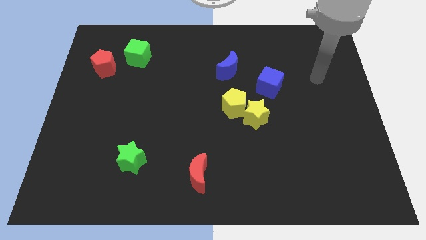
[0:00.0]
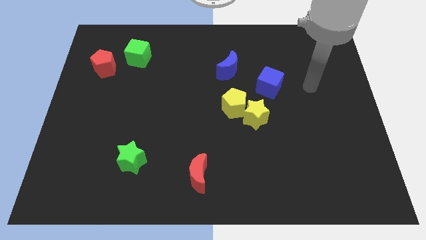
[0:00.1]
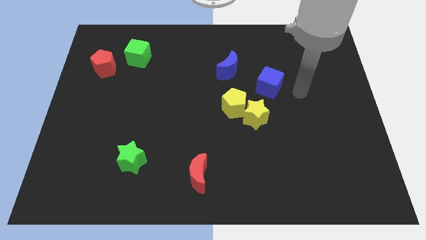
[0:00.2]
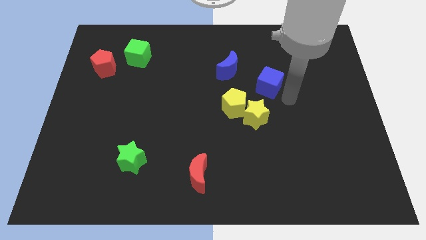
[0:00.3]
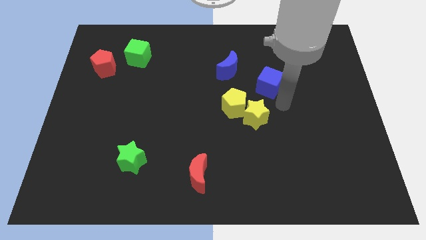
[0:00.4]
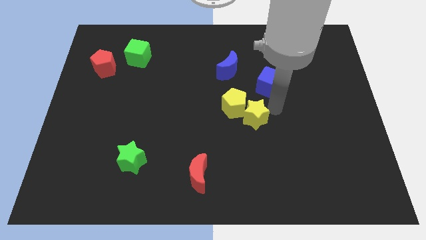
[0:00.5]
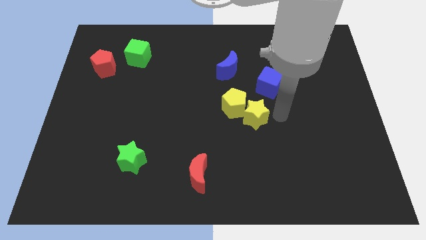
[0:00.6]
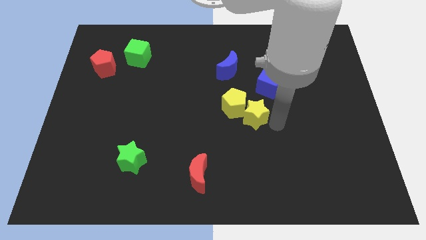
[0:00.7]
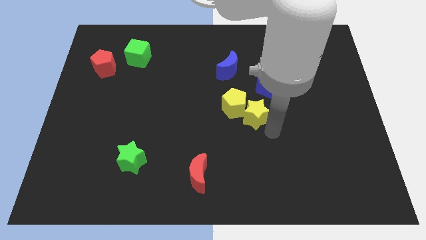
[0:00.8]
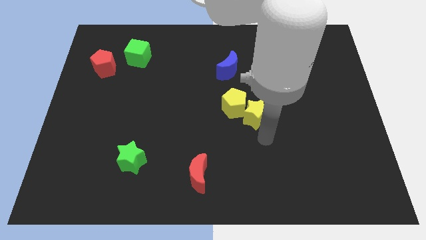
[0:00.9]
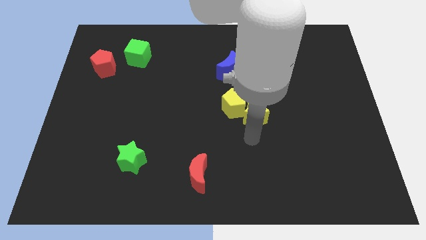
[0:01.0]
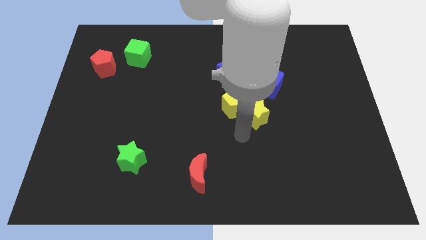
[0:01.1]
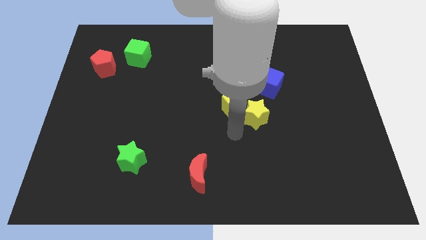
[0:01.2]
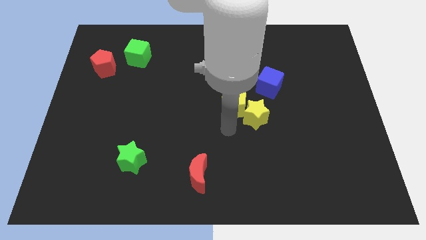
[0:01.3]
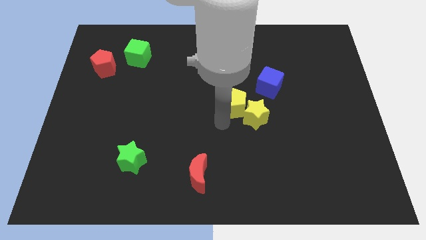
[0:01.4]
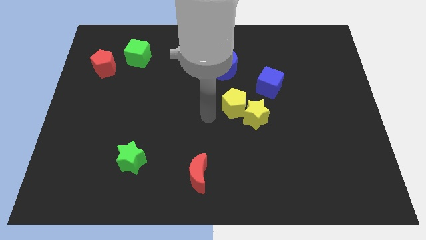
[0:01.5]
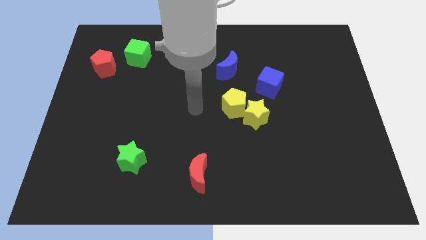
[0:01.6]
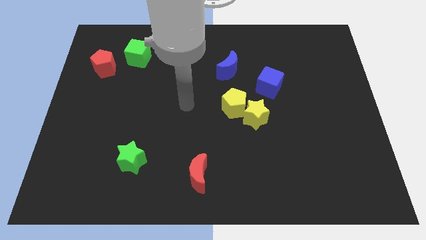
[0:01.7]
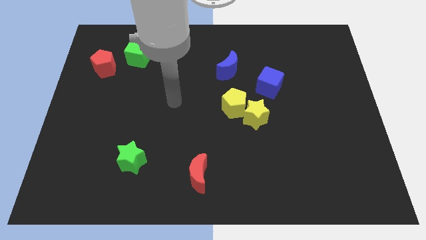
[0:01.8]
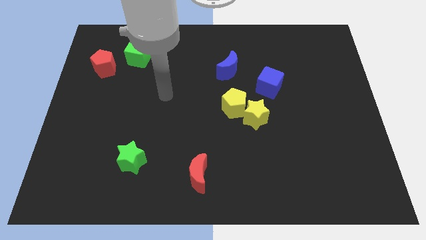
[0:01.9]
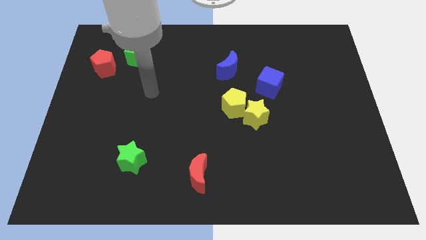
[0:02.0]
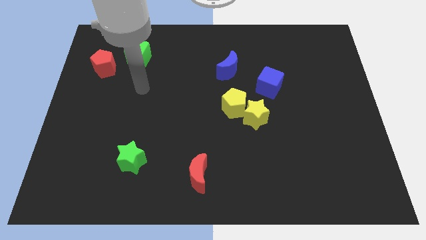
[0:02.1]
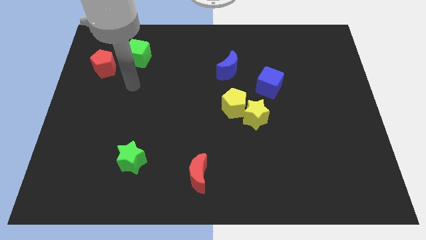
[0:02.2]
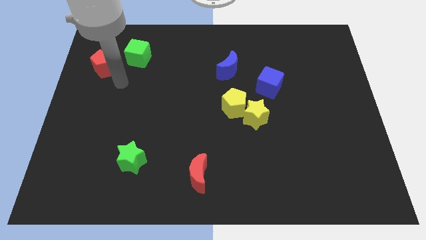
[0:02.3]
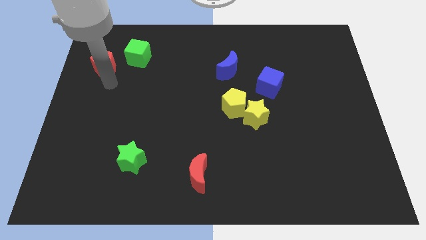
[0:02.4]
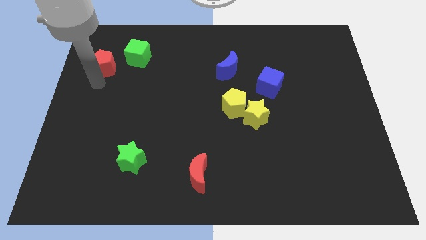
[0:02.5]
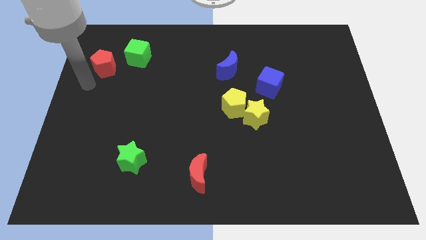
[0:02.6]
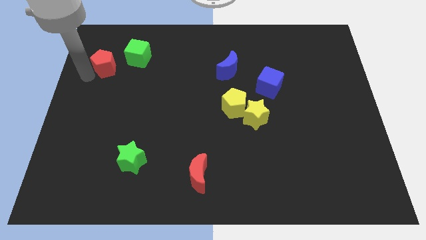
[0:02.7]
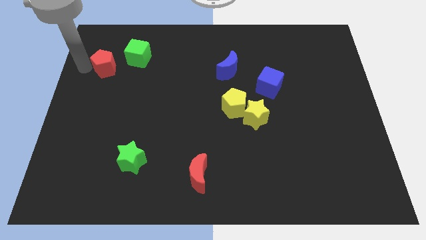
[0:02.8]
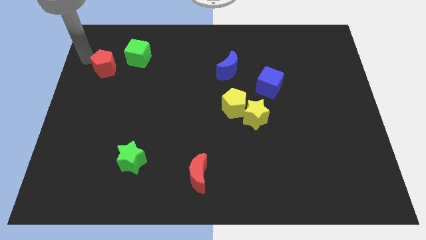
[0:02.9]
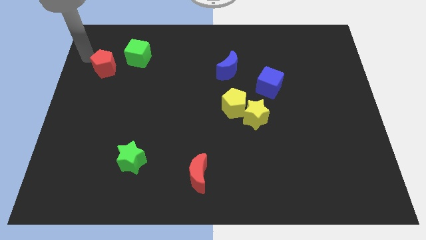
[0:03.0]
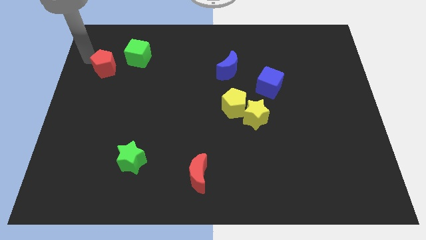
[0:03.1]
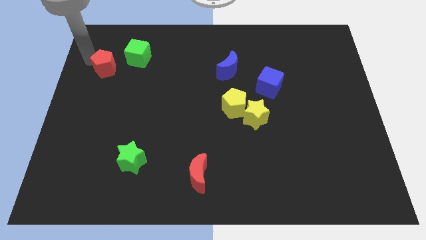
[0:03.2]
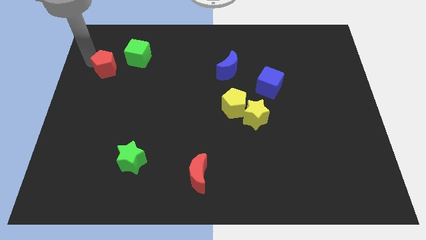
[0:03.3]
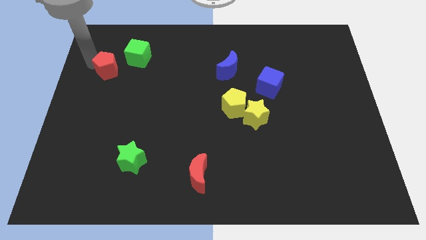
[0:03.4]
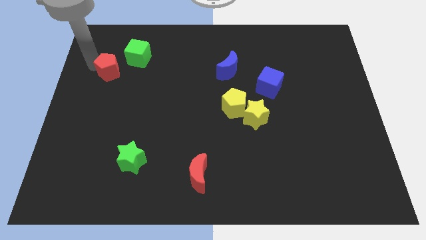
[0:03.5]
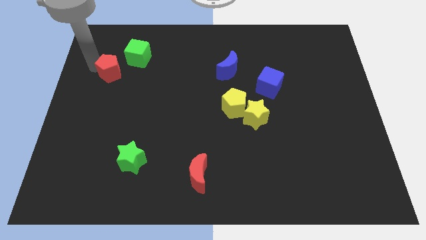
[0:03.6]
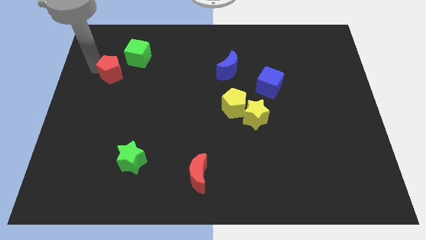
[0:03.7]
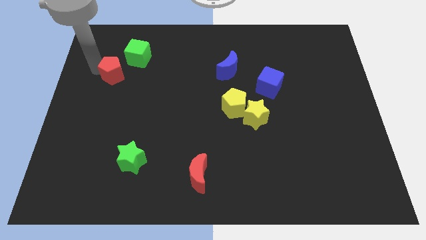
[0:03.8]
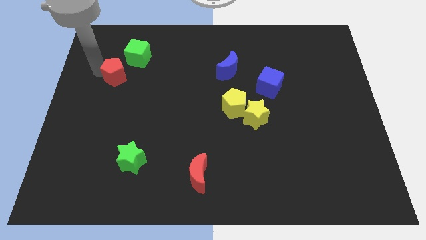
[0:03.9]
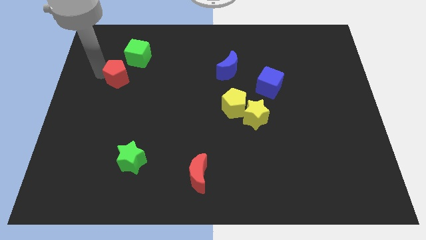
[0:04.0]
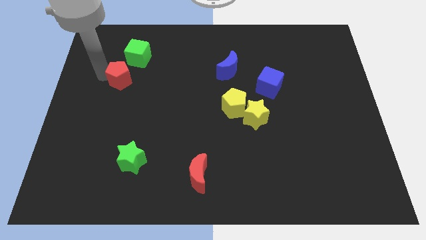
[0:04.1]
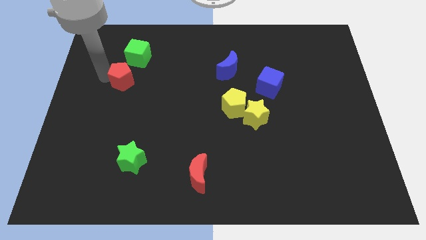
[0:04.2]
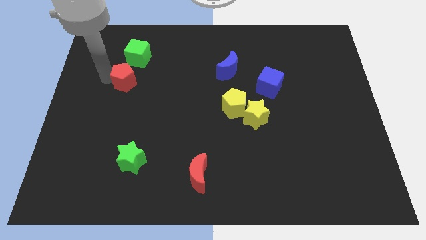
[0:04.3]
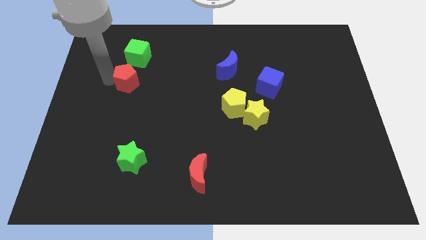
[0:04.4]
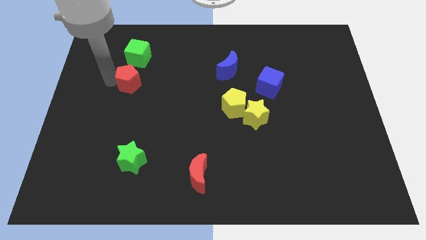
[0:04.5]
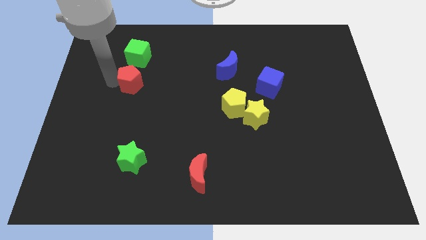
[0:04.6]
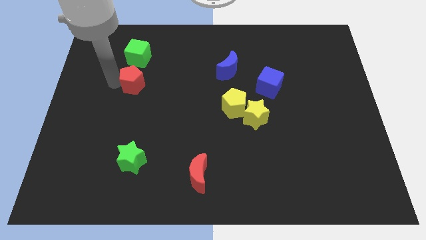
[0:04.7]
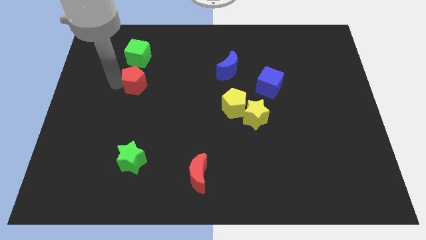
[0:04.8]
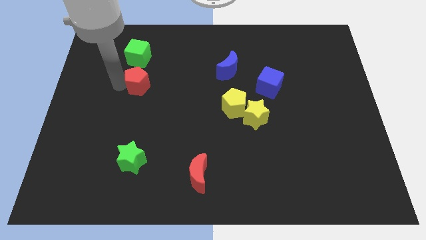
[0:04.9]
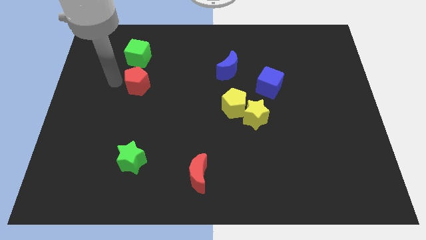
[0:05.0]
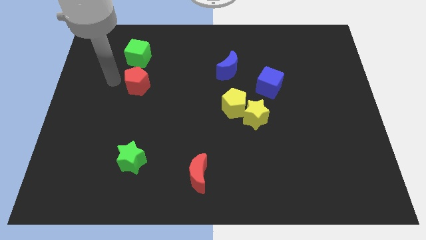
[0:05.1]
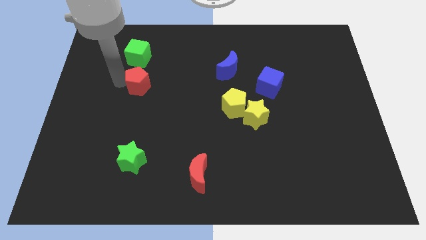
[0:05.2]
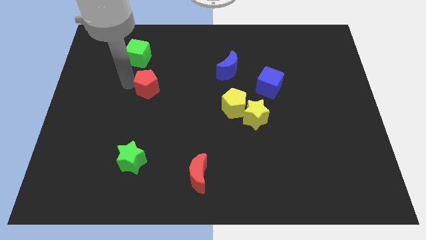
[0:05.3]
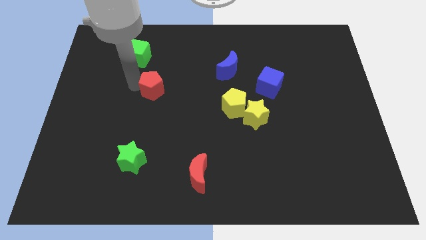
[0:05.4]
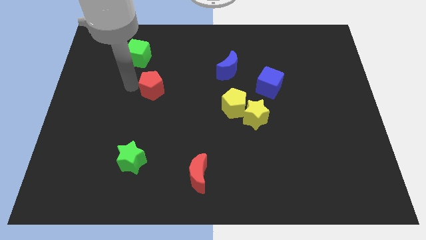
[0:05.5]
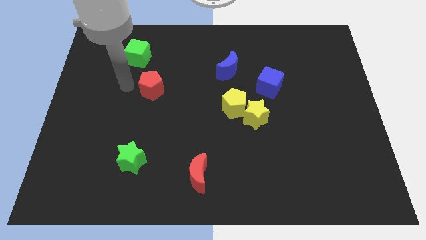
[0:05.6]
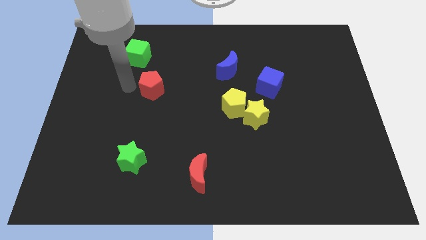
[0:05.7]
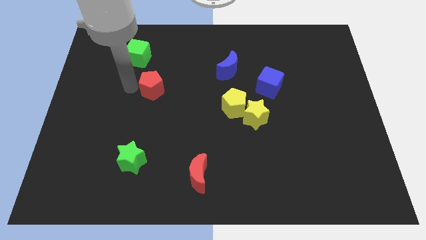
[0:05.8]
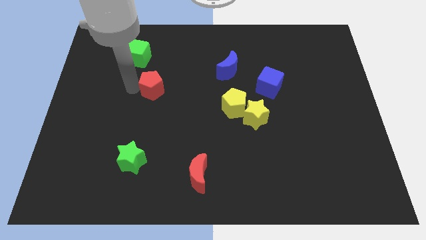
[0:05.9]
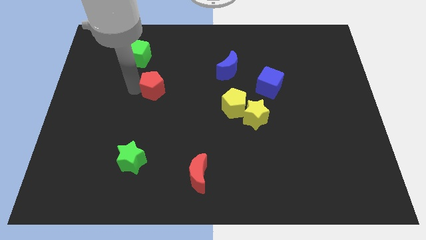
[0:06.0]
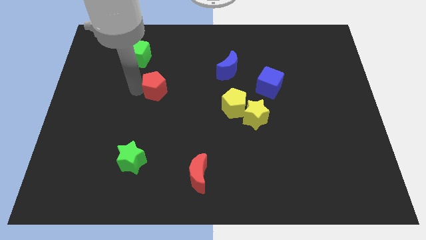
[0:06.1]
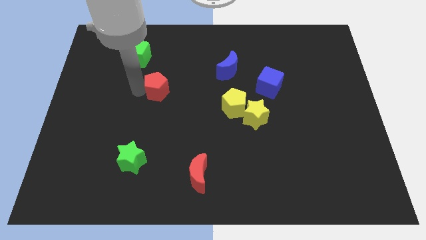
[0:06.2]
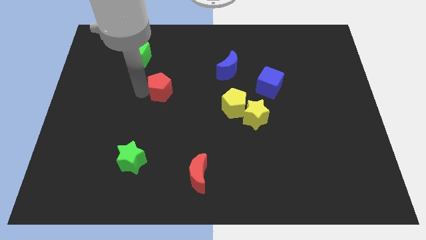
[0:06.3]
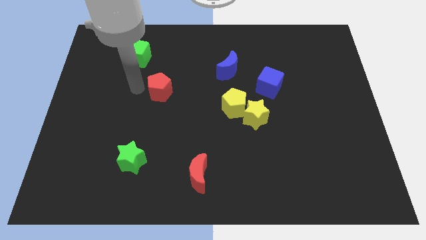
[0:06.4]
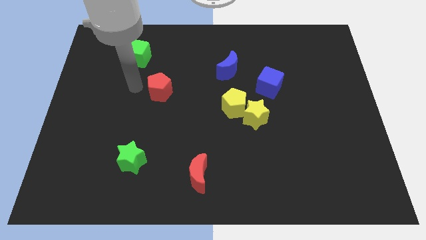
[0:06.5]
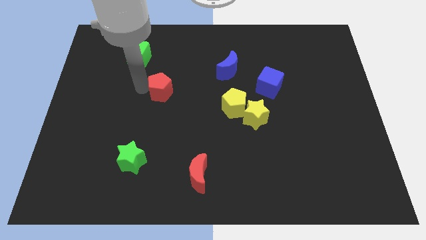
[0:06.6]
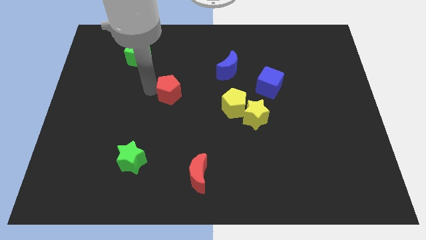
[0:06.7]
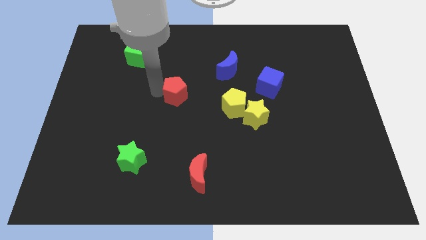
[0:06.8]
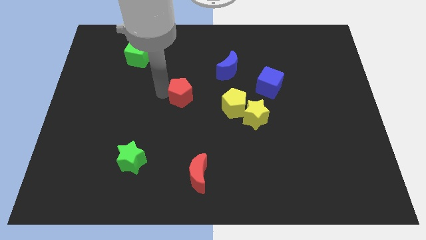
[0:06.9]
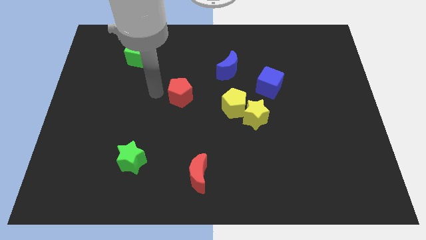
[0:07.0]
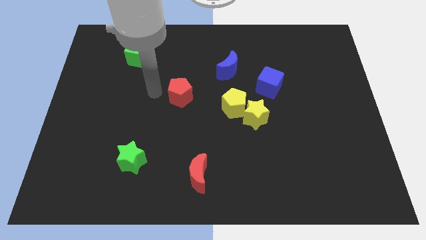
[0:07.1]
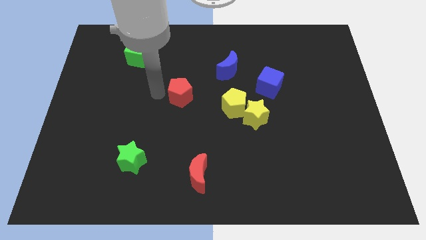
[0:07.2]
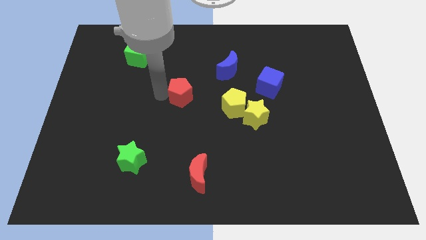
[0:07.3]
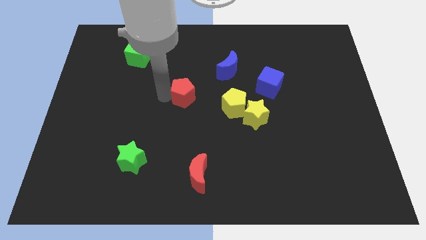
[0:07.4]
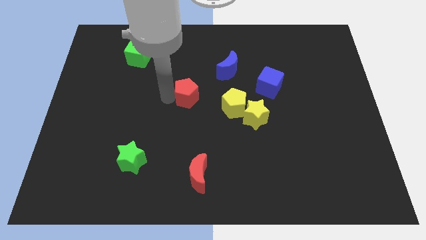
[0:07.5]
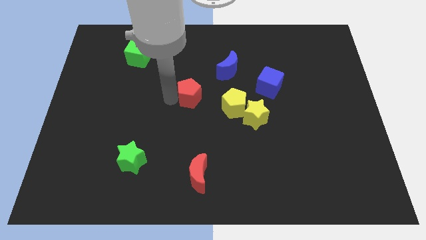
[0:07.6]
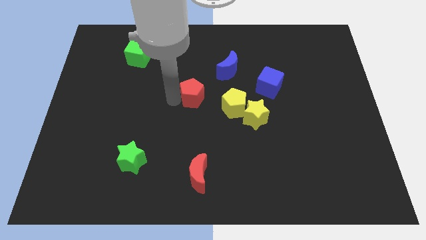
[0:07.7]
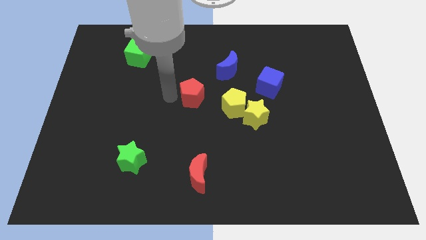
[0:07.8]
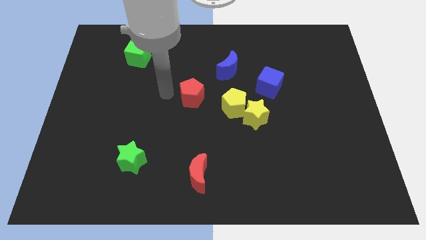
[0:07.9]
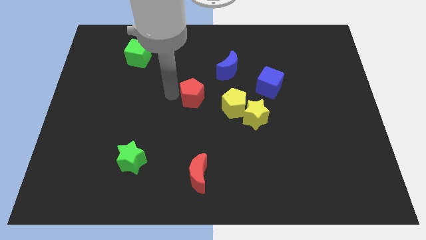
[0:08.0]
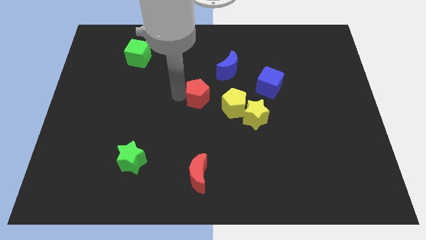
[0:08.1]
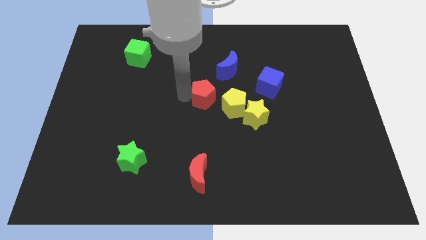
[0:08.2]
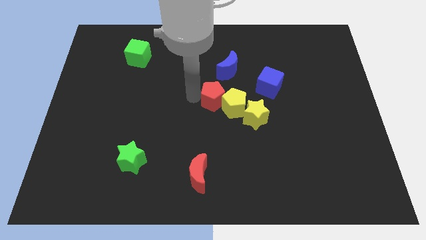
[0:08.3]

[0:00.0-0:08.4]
push the red pentagon towards the yellow pentagon
